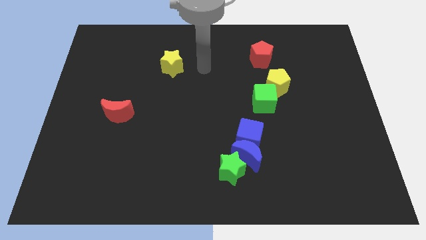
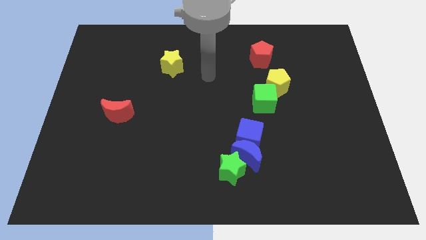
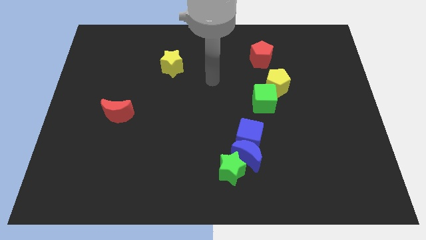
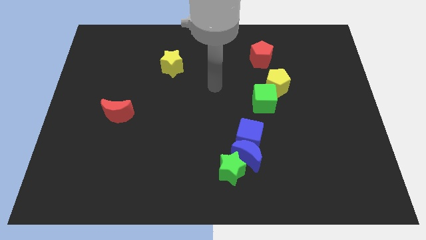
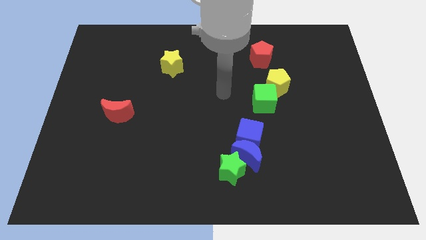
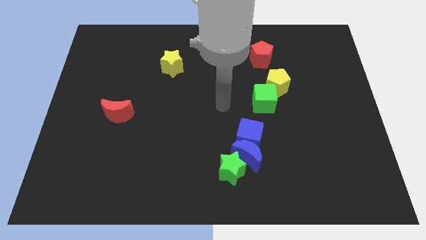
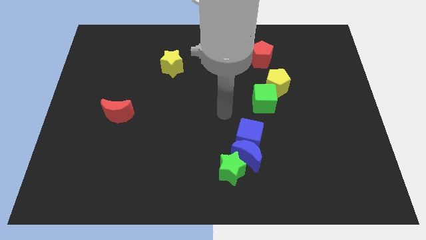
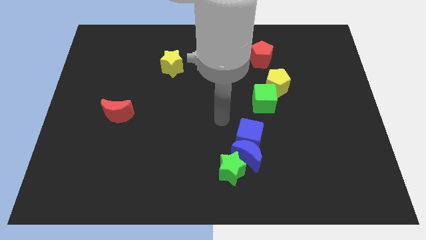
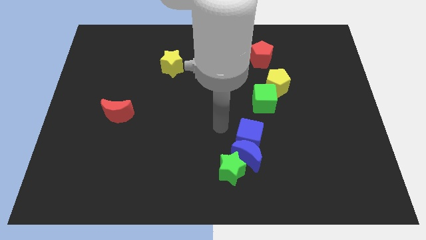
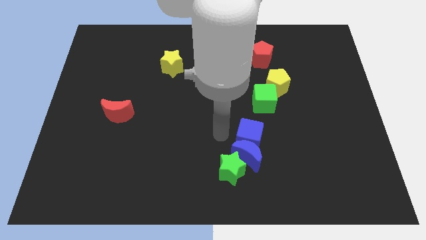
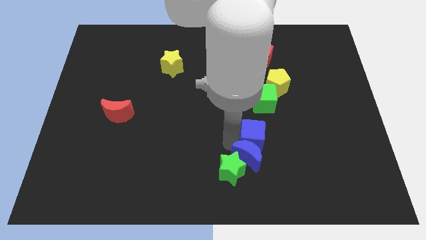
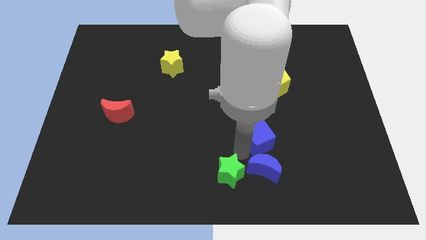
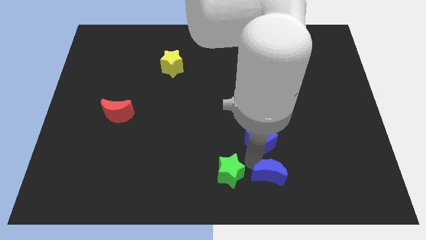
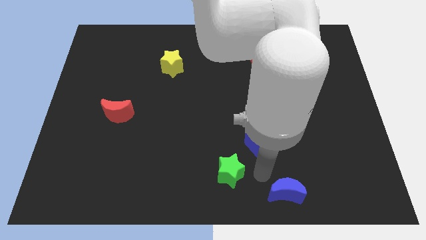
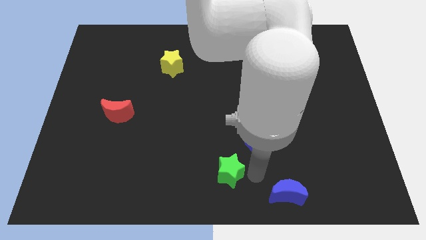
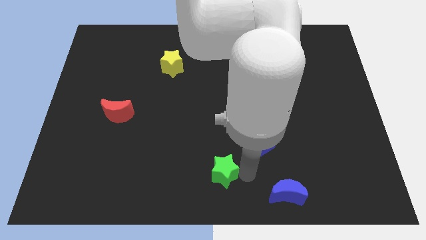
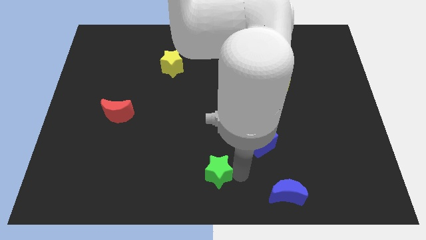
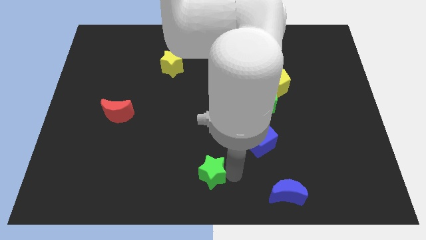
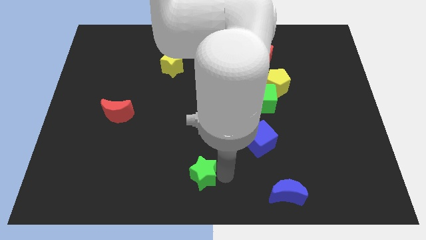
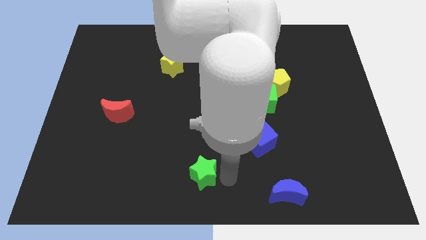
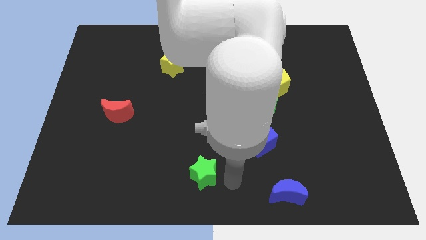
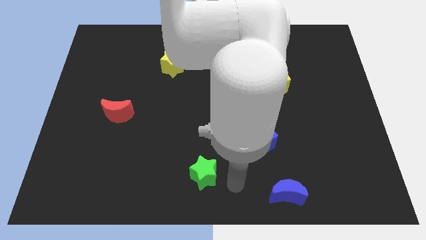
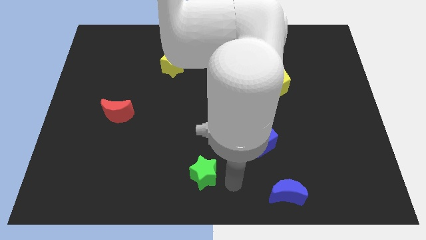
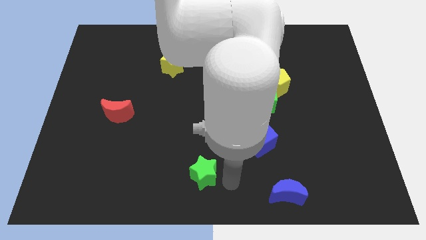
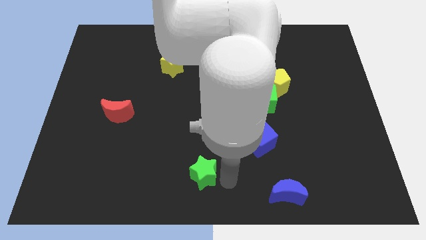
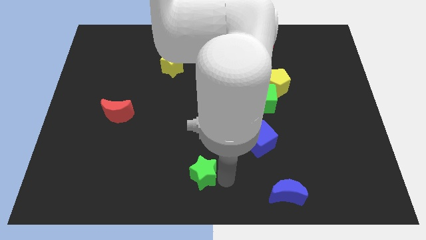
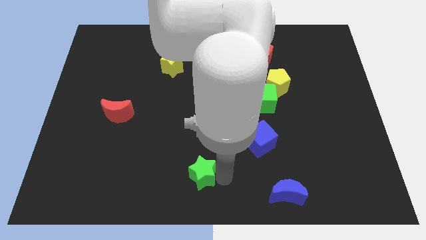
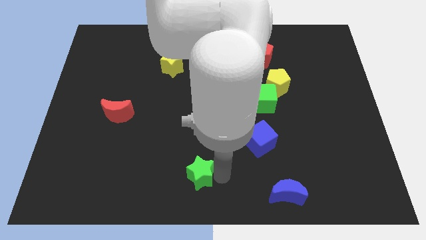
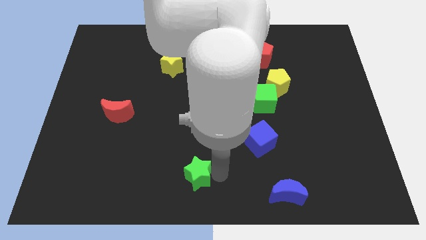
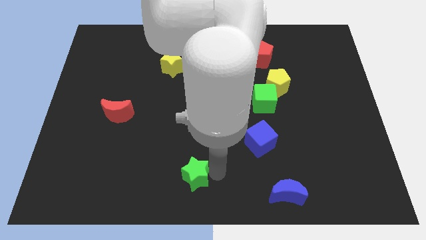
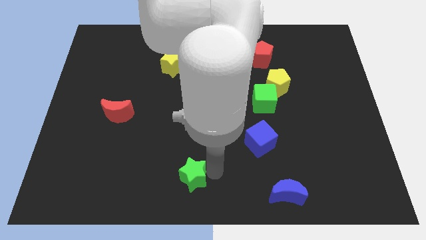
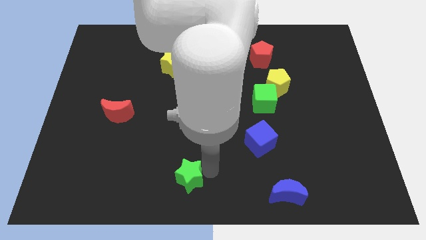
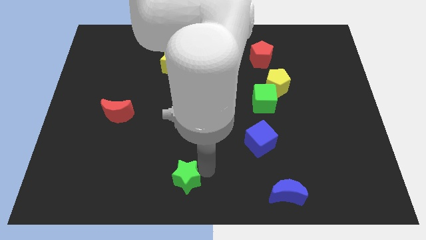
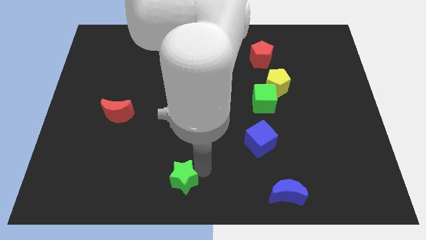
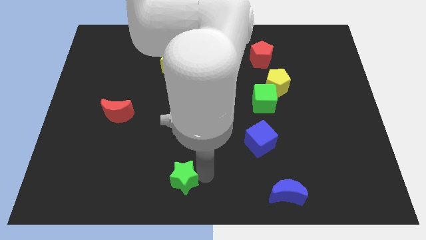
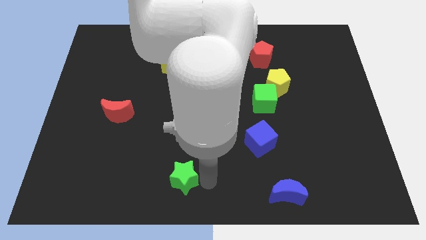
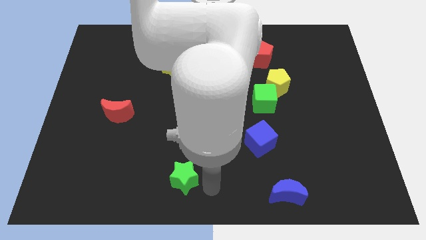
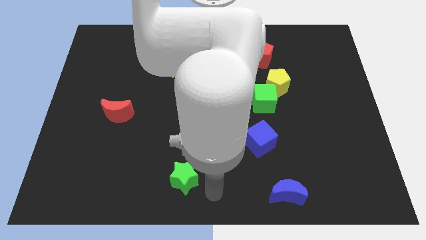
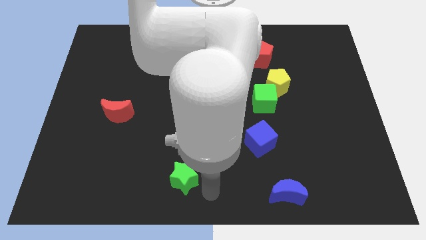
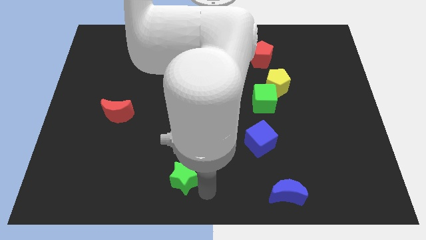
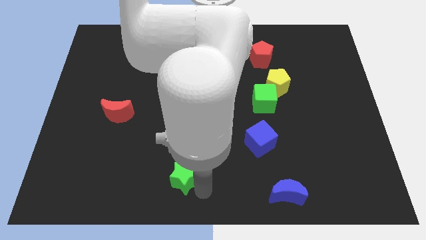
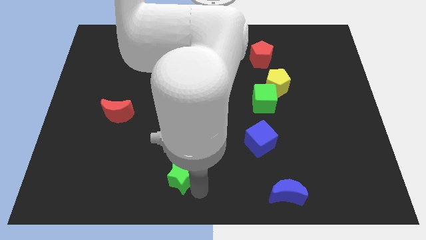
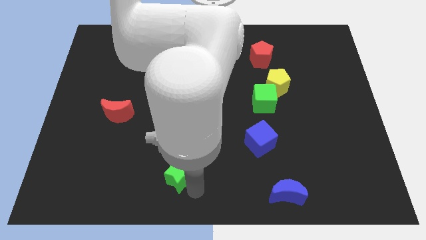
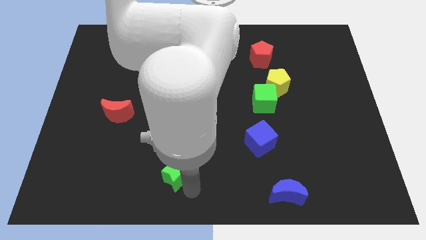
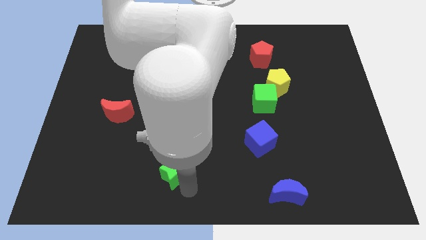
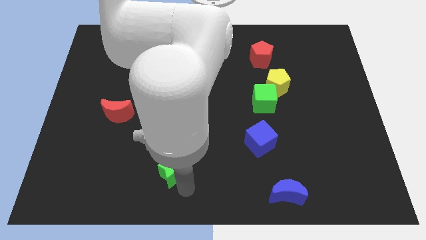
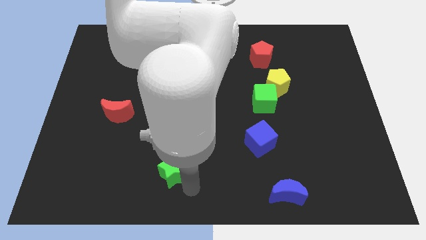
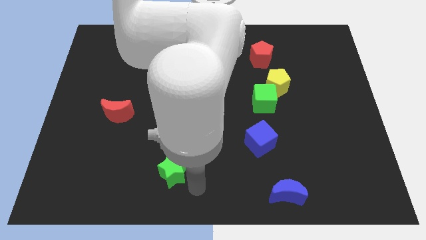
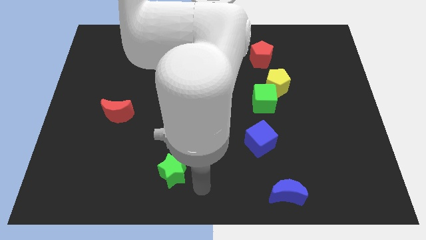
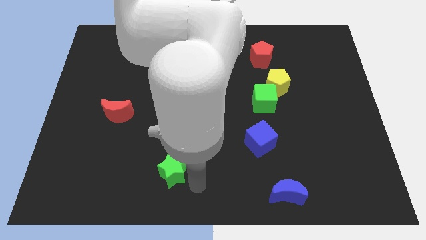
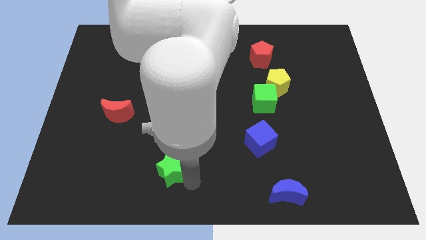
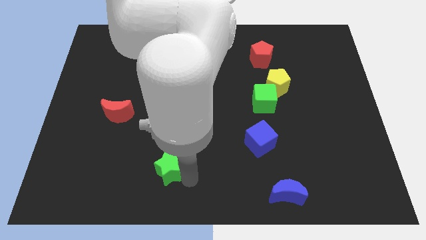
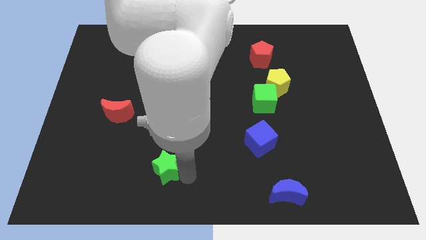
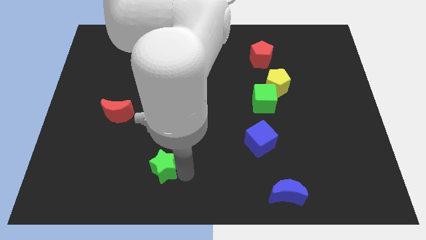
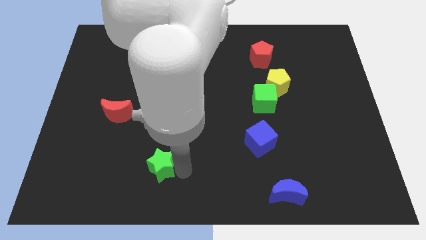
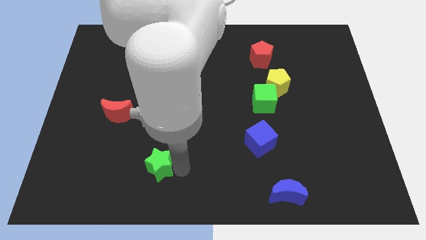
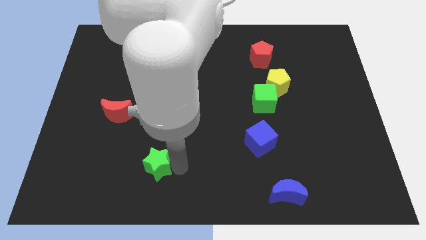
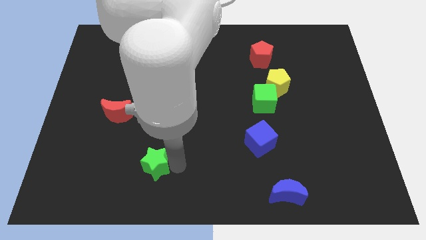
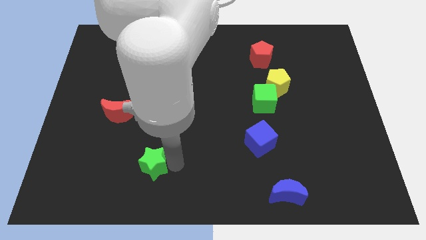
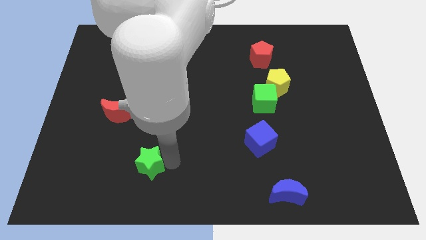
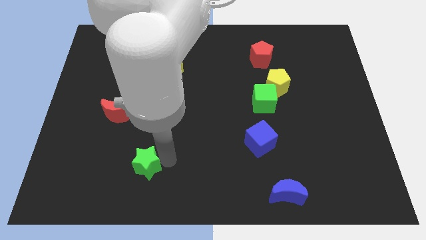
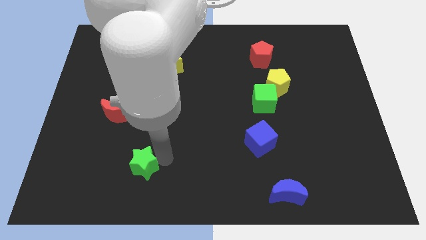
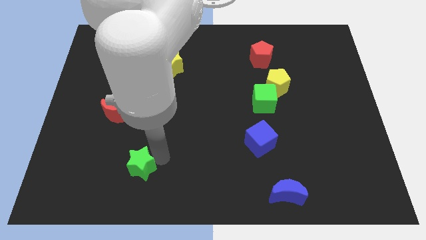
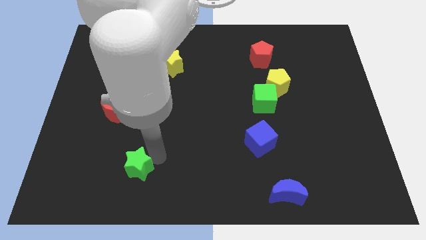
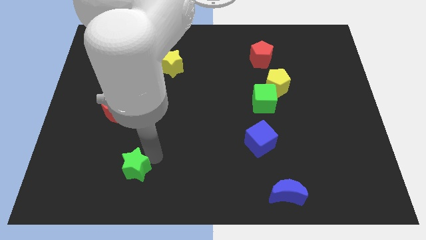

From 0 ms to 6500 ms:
slide the green star to the left

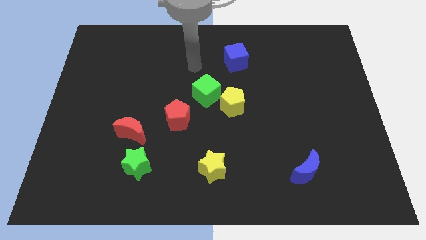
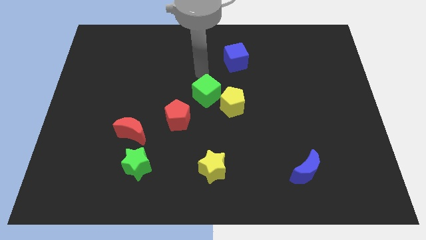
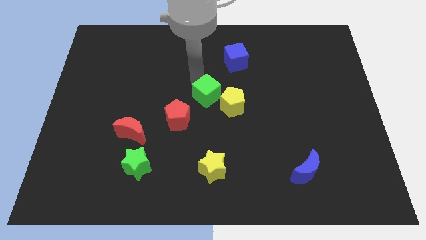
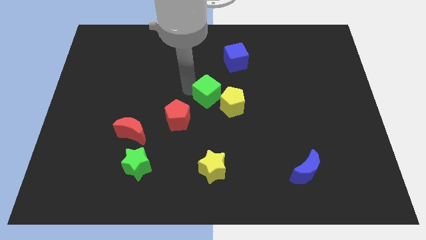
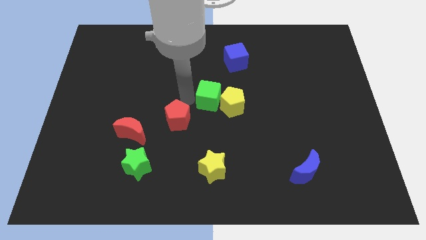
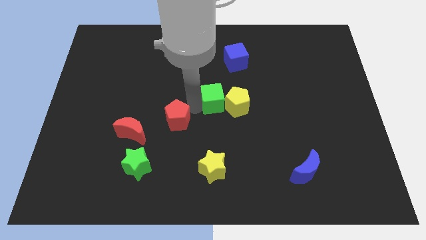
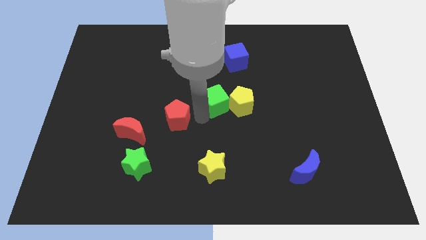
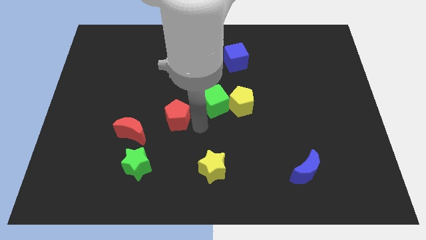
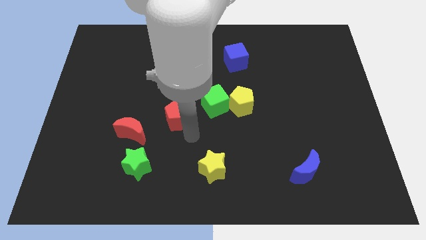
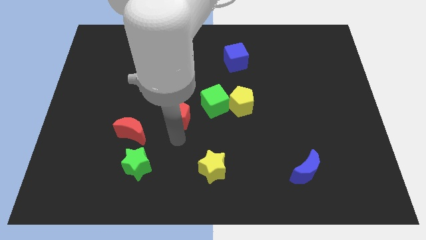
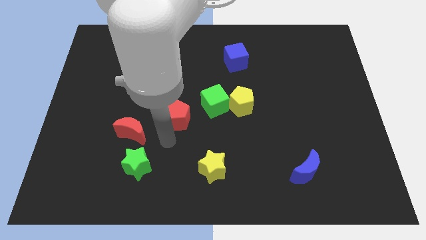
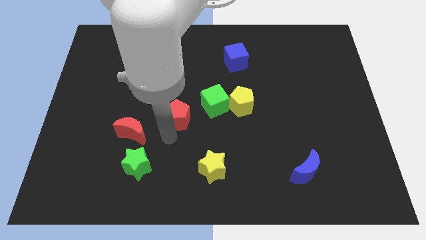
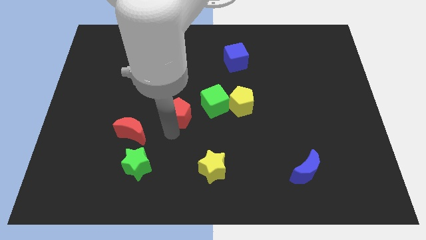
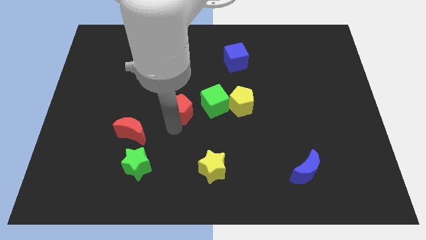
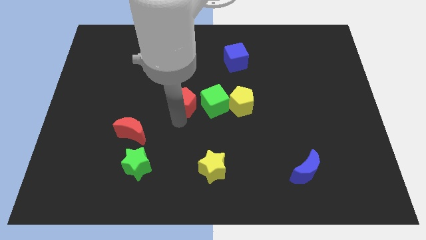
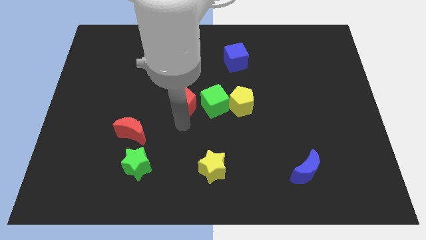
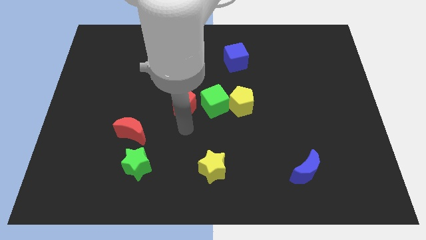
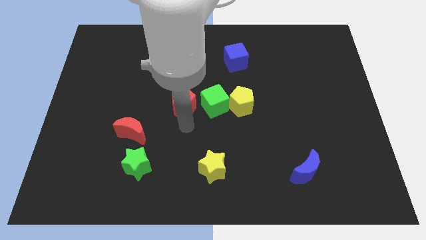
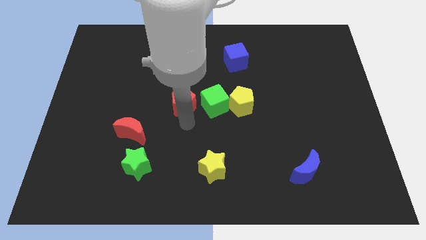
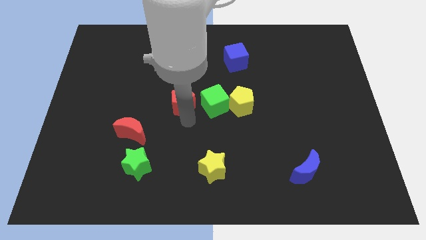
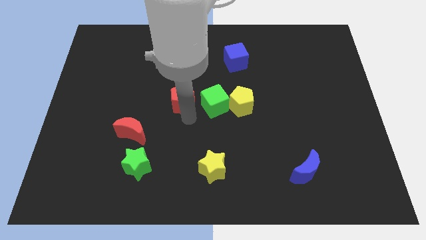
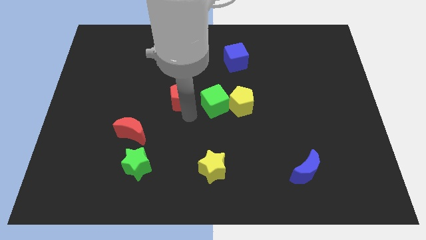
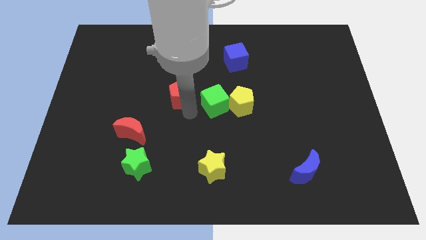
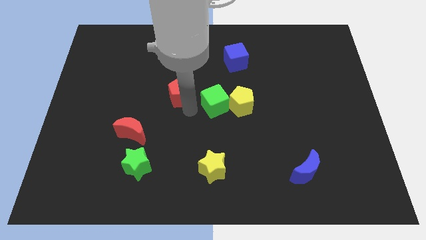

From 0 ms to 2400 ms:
move the red pentagon a little bit up
